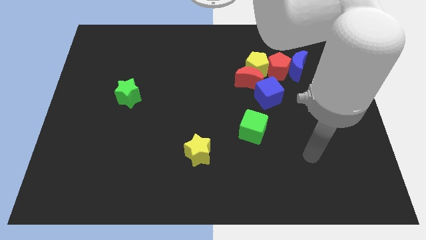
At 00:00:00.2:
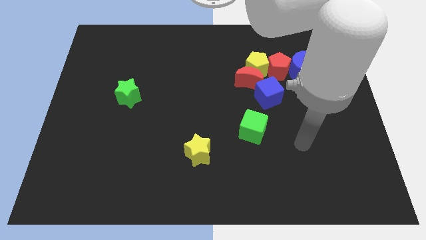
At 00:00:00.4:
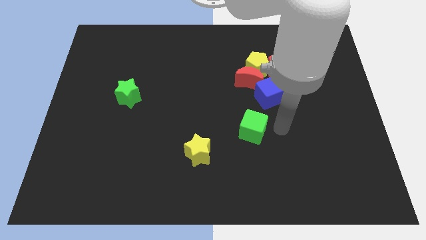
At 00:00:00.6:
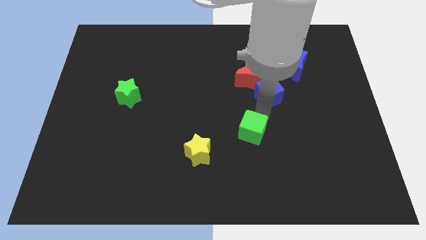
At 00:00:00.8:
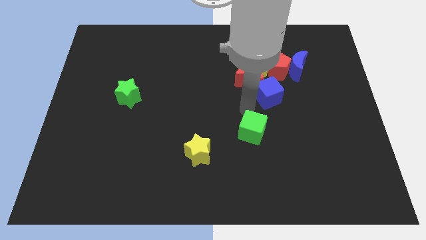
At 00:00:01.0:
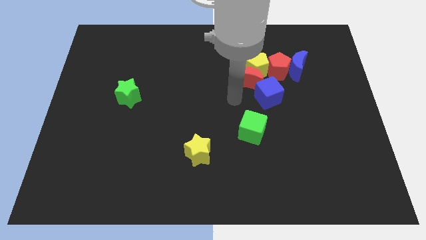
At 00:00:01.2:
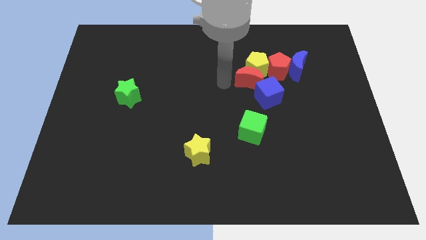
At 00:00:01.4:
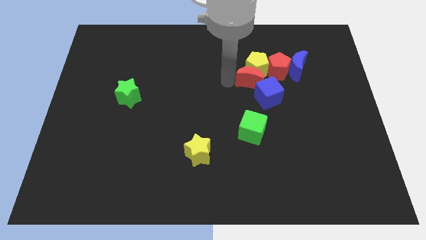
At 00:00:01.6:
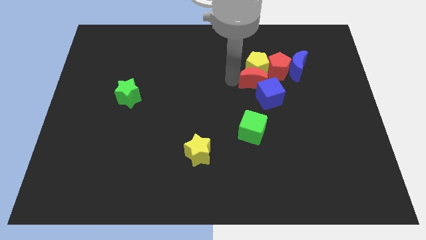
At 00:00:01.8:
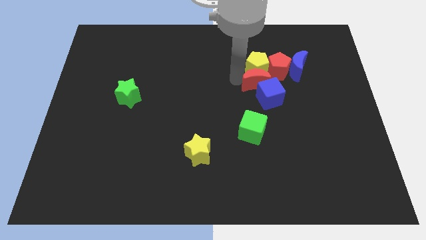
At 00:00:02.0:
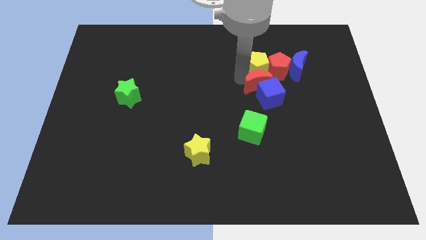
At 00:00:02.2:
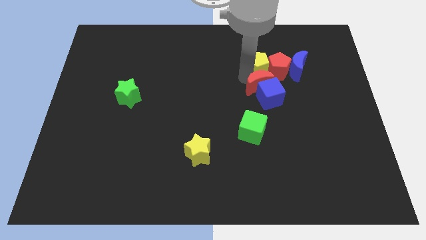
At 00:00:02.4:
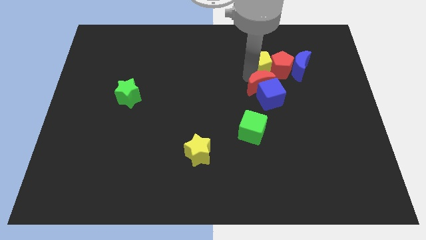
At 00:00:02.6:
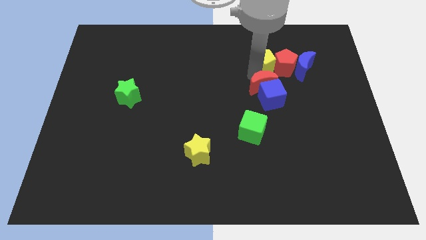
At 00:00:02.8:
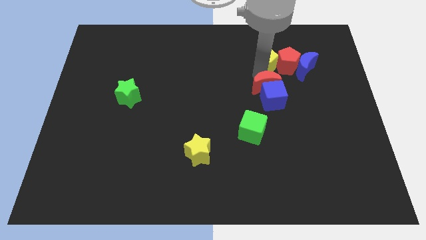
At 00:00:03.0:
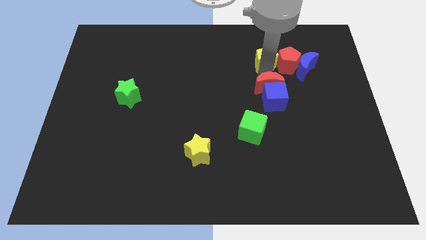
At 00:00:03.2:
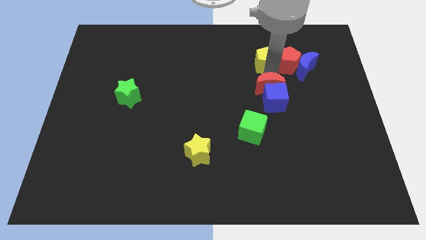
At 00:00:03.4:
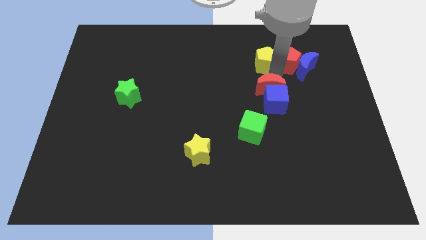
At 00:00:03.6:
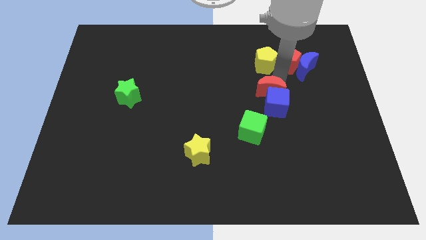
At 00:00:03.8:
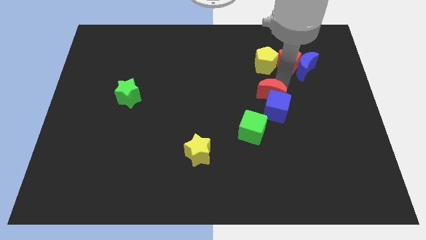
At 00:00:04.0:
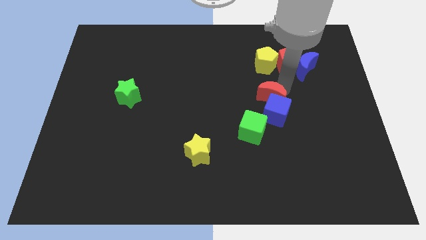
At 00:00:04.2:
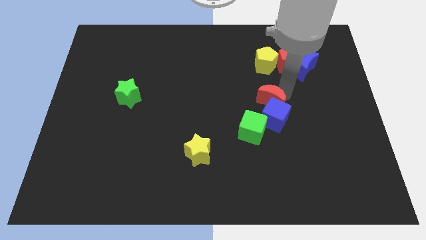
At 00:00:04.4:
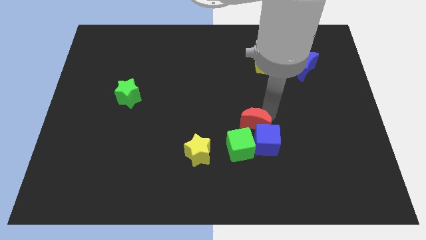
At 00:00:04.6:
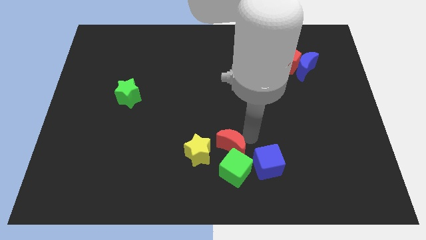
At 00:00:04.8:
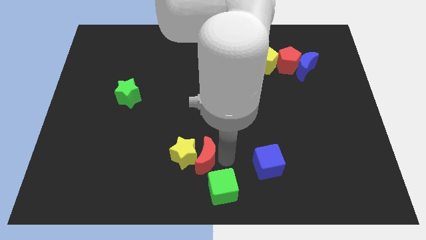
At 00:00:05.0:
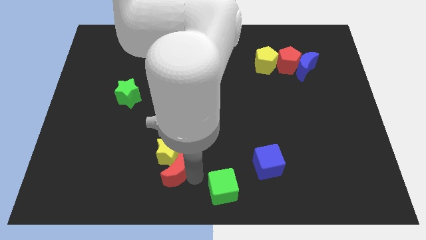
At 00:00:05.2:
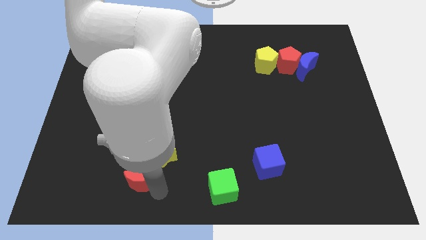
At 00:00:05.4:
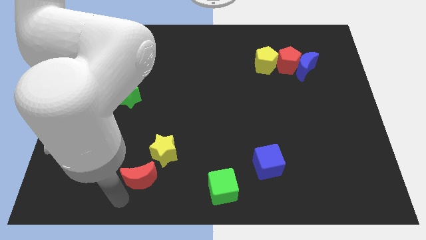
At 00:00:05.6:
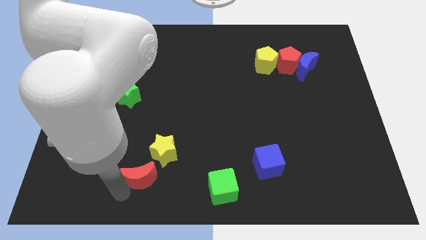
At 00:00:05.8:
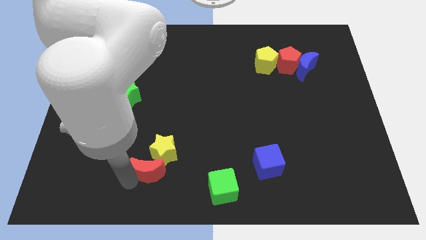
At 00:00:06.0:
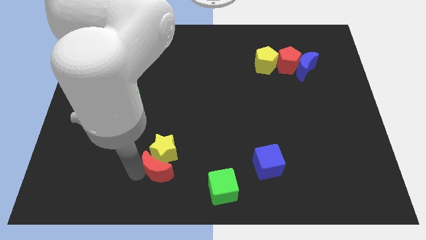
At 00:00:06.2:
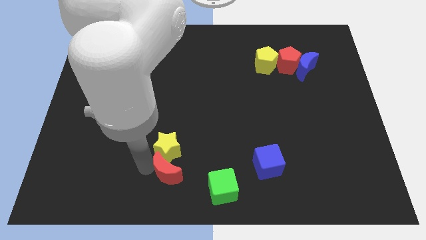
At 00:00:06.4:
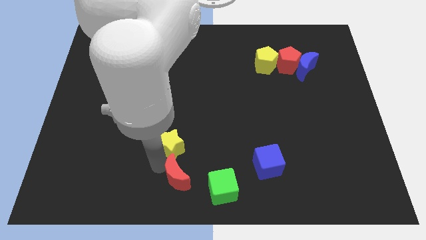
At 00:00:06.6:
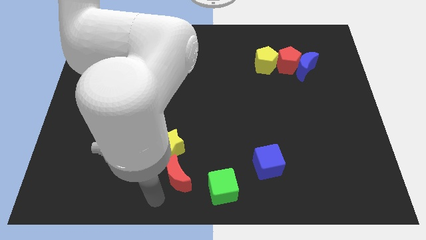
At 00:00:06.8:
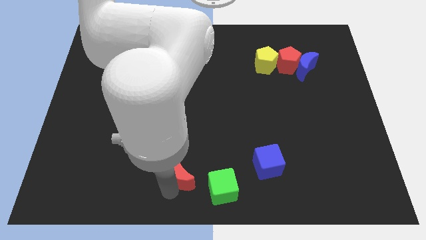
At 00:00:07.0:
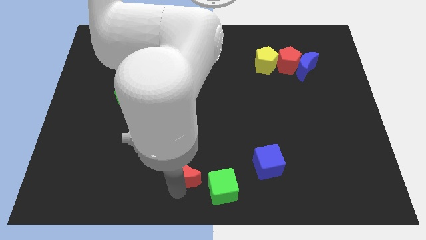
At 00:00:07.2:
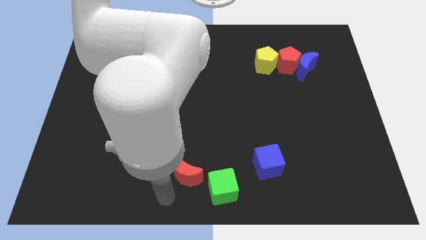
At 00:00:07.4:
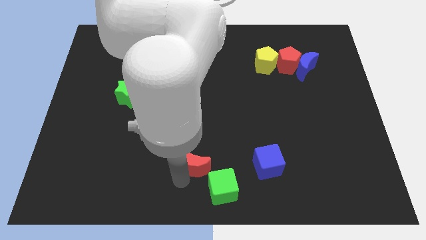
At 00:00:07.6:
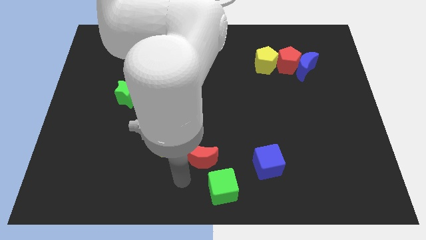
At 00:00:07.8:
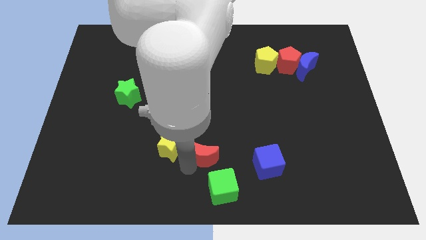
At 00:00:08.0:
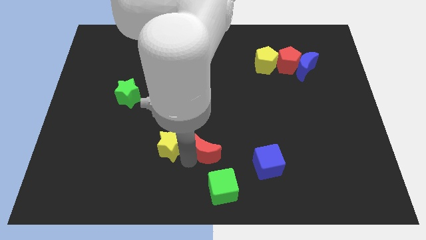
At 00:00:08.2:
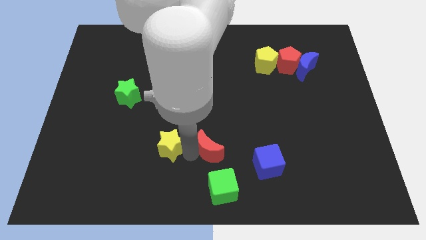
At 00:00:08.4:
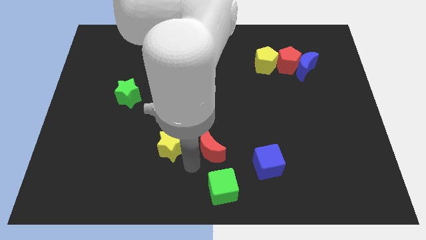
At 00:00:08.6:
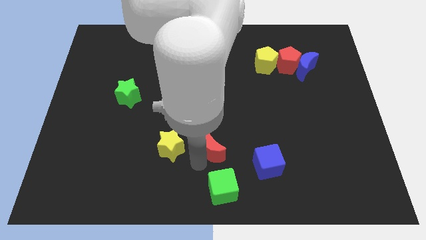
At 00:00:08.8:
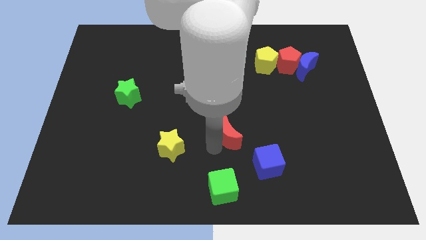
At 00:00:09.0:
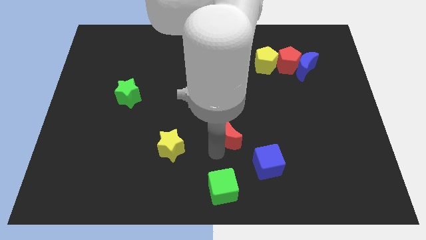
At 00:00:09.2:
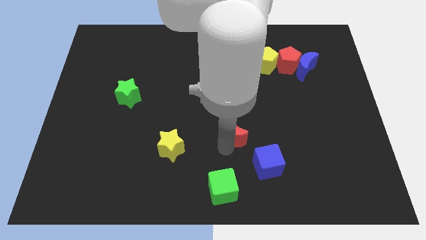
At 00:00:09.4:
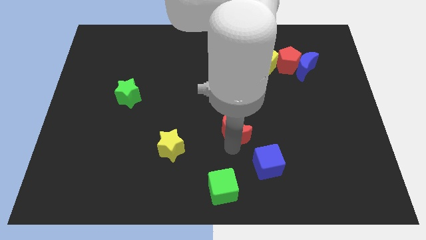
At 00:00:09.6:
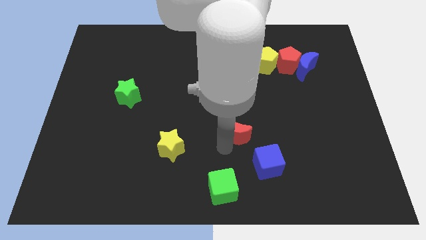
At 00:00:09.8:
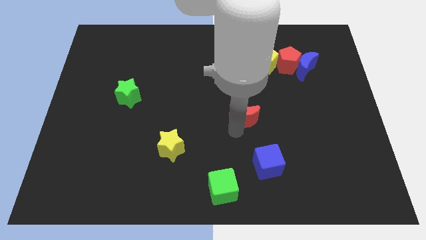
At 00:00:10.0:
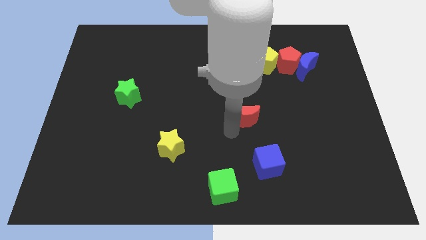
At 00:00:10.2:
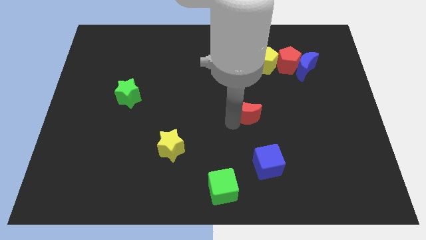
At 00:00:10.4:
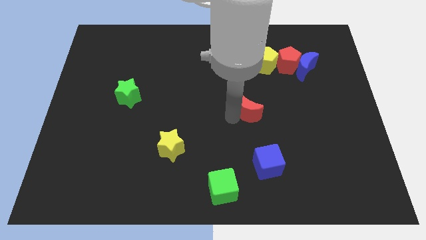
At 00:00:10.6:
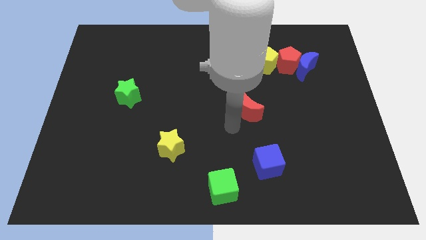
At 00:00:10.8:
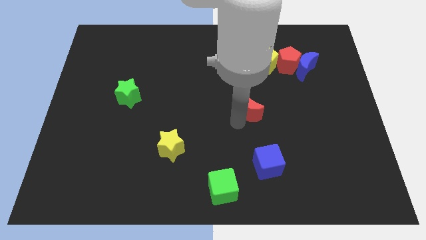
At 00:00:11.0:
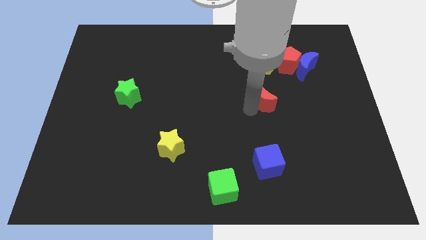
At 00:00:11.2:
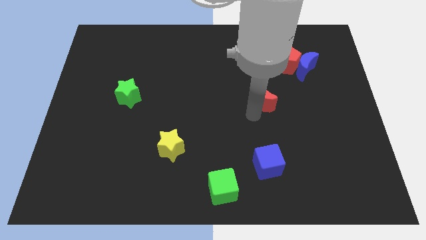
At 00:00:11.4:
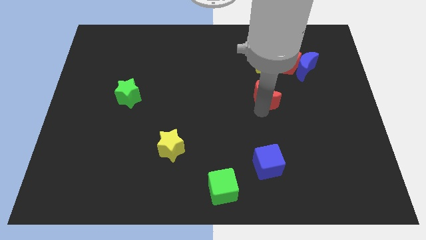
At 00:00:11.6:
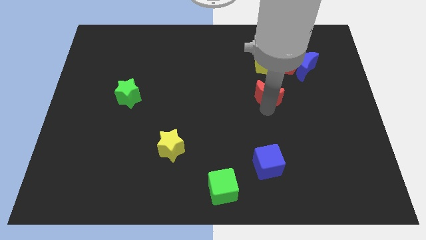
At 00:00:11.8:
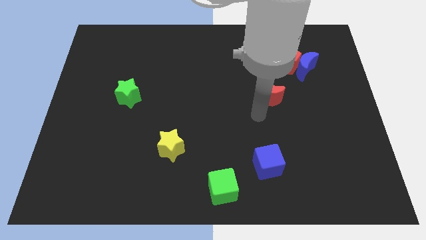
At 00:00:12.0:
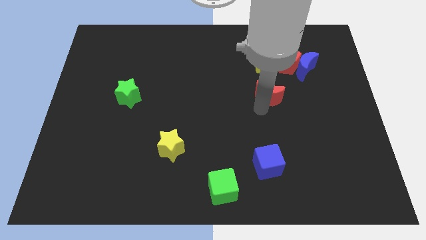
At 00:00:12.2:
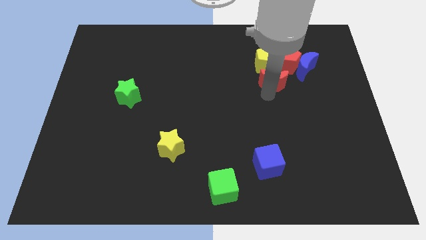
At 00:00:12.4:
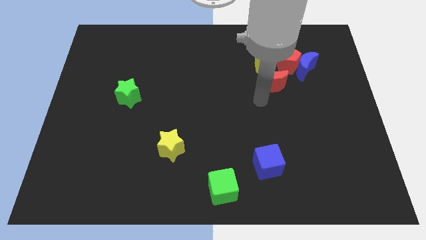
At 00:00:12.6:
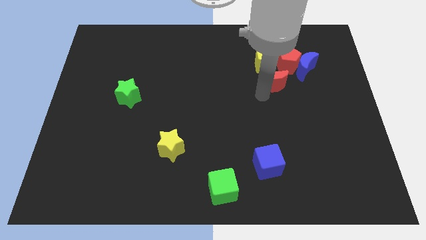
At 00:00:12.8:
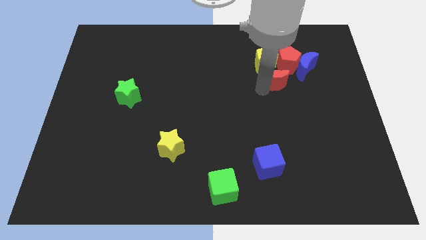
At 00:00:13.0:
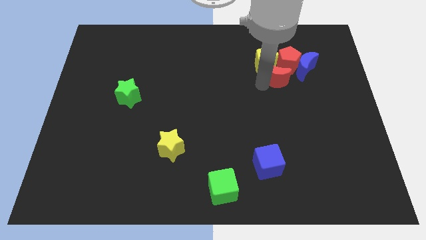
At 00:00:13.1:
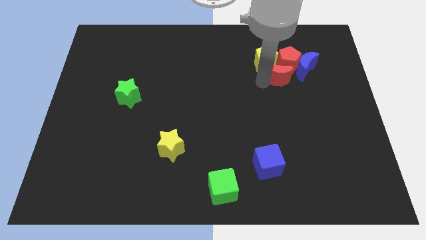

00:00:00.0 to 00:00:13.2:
push the red moon to the red pentagon
